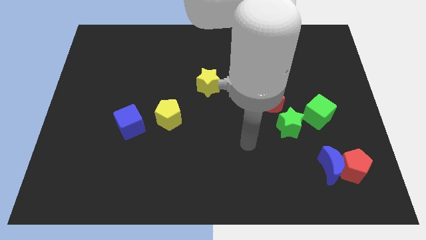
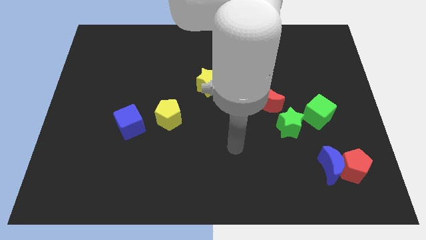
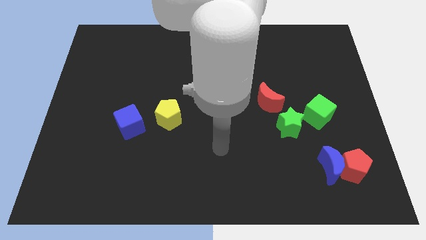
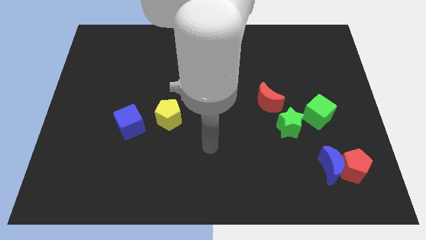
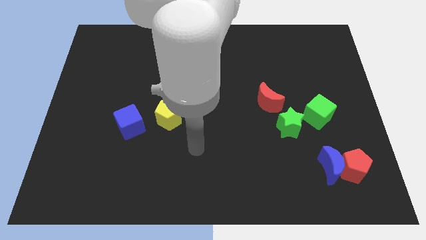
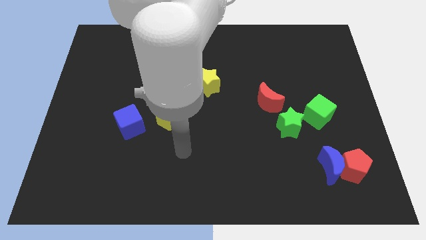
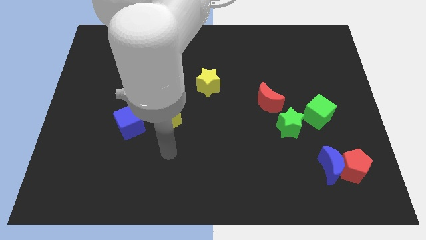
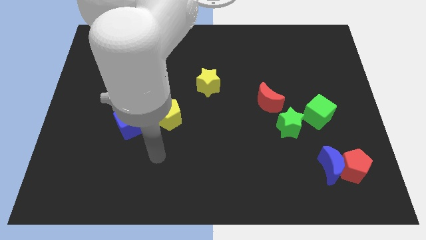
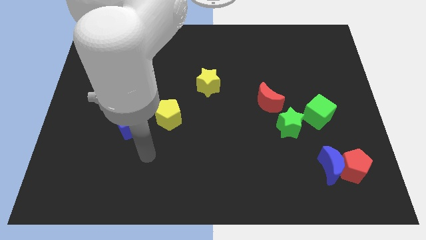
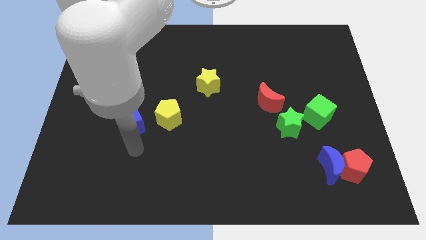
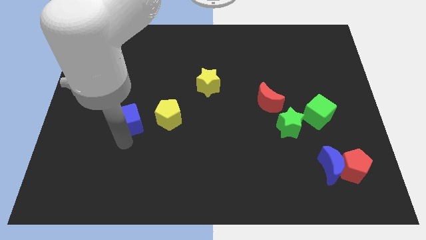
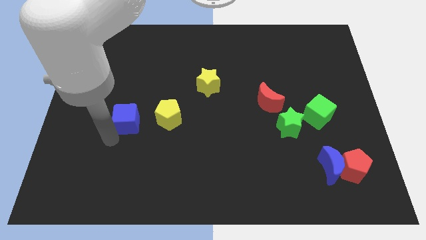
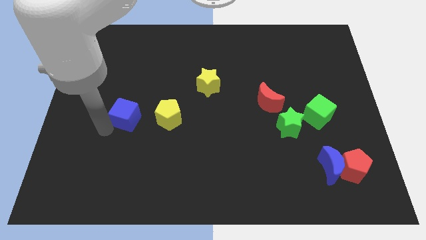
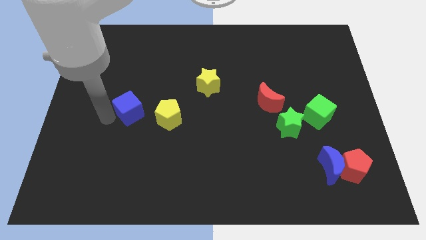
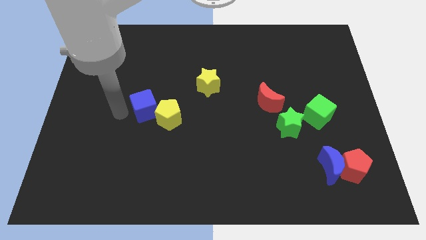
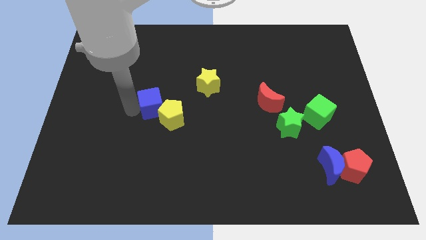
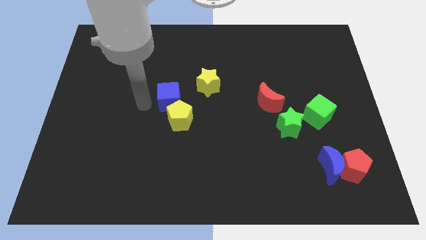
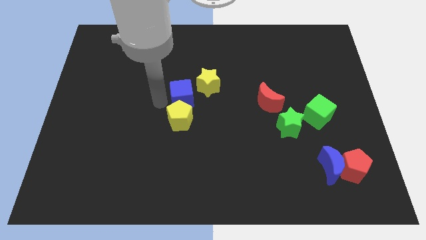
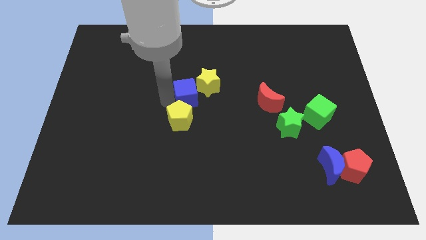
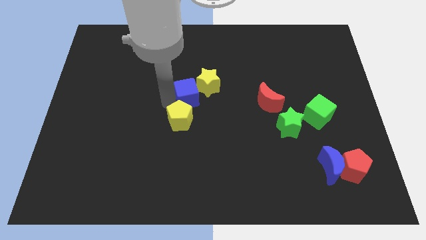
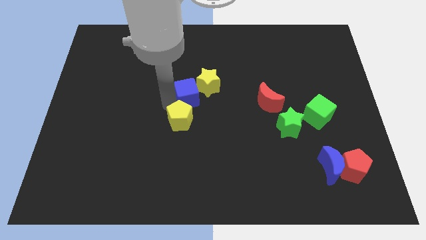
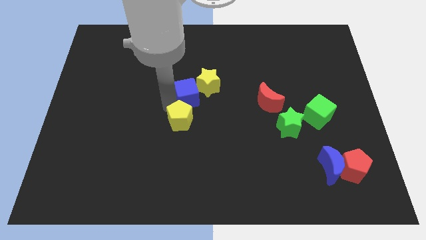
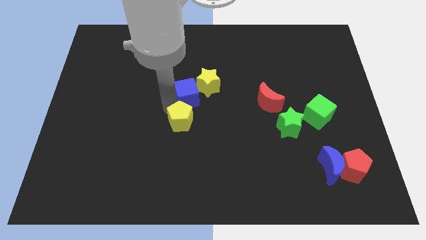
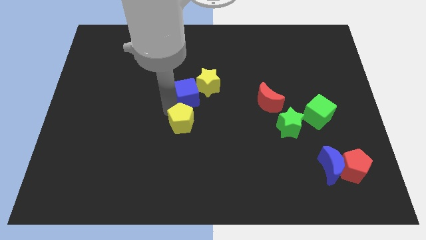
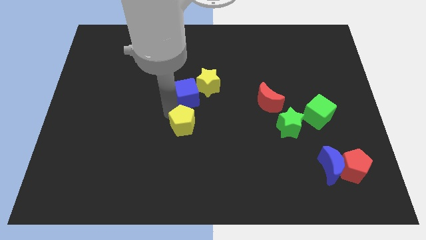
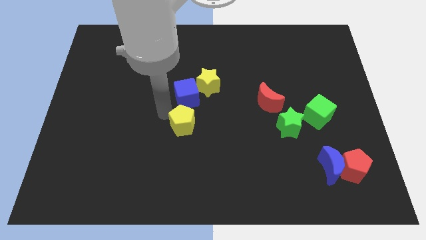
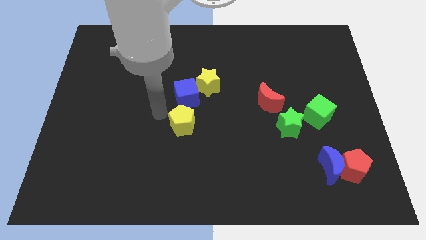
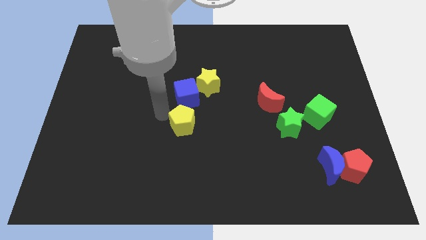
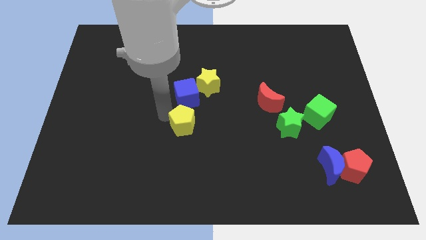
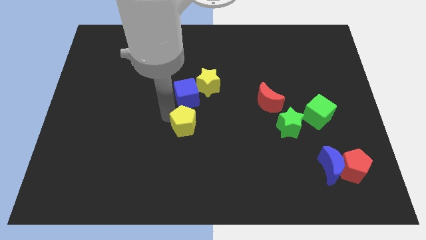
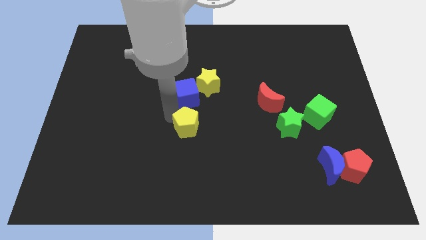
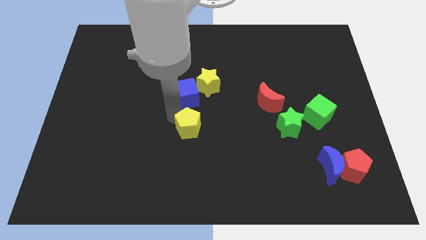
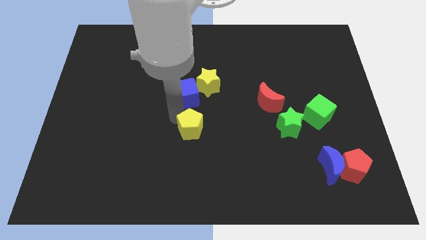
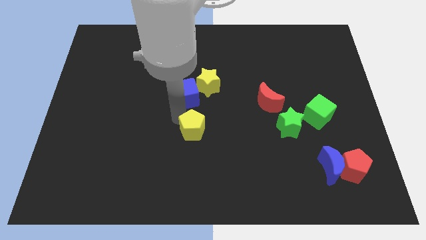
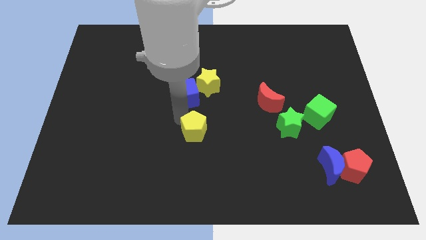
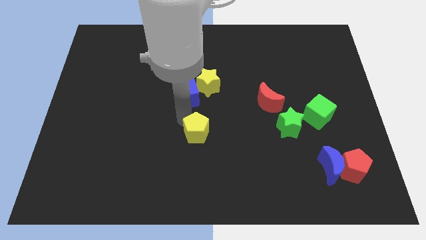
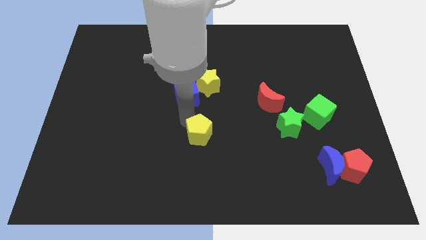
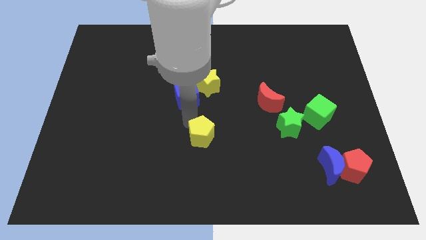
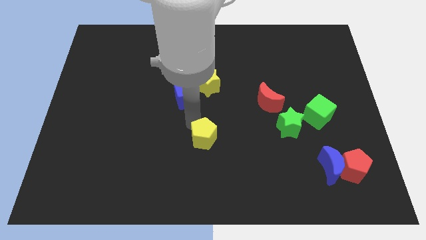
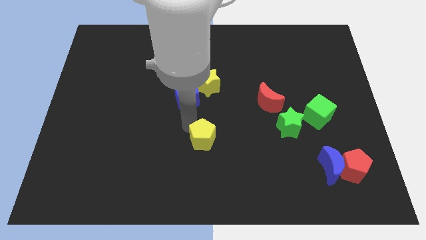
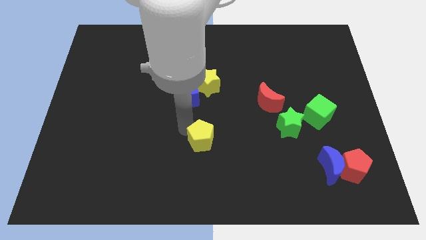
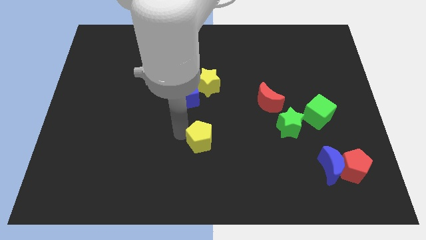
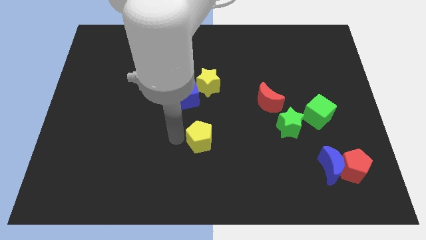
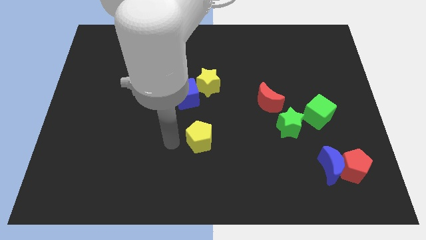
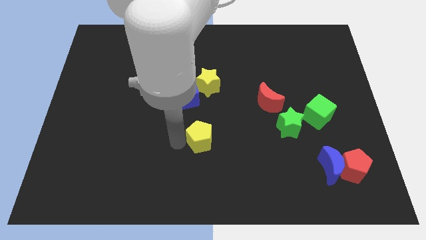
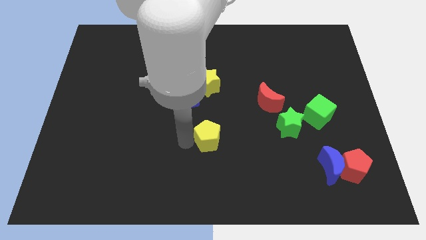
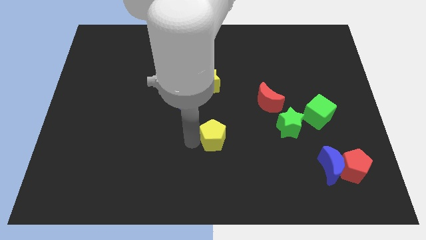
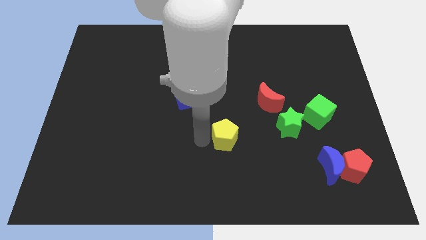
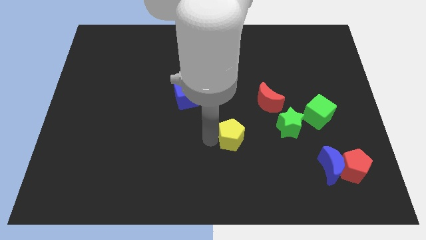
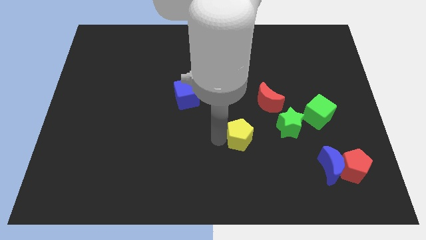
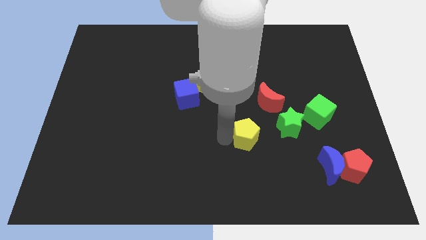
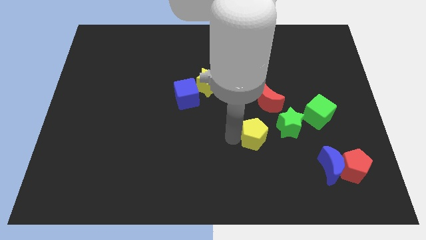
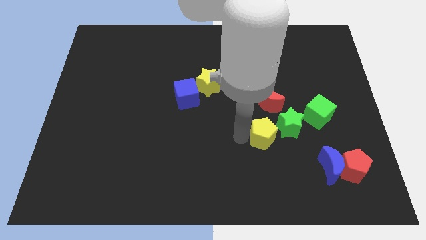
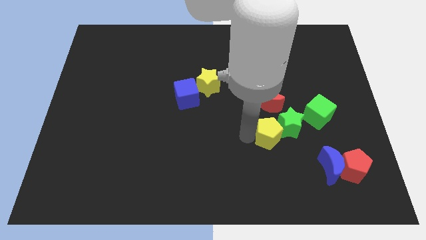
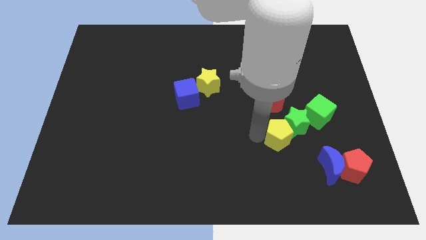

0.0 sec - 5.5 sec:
slide the yellow pentagon to the top left side of the blue moon

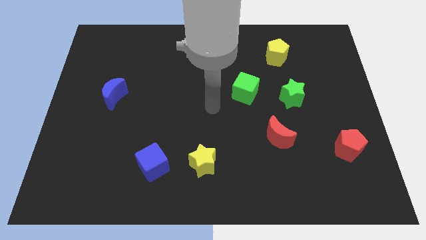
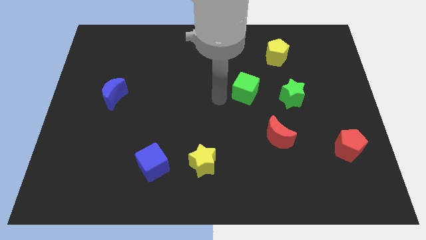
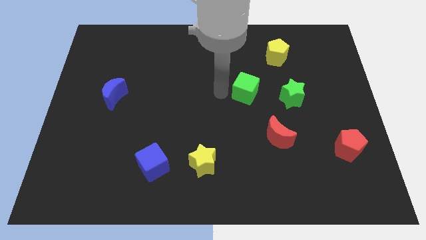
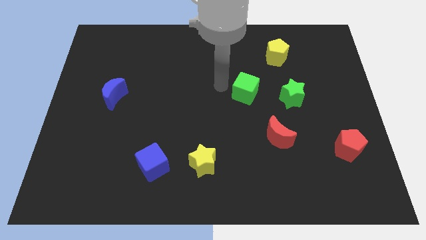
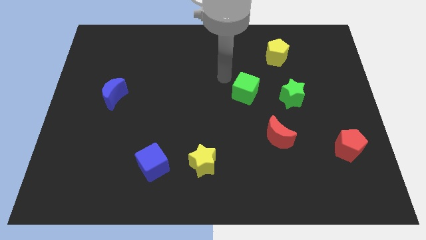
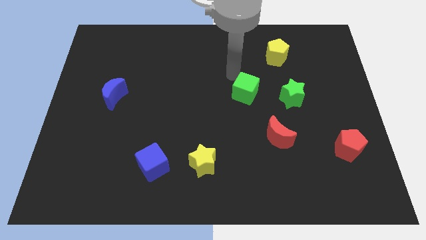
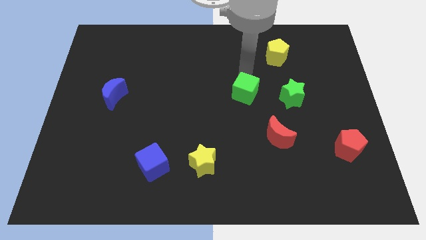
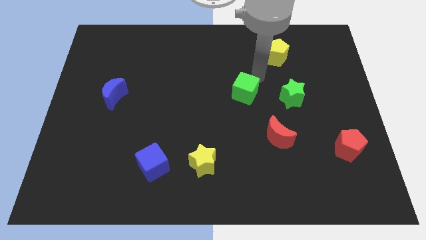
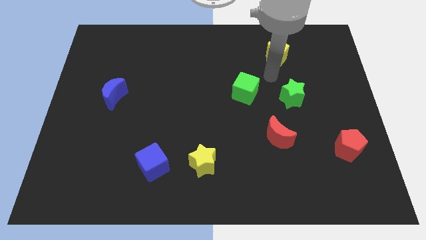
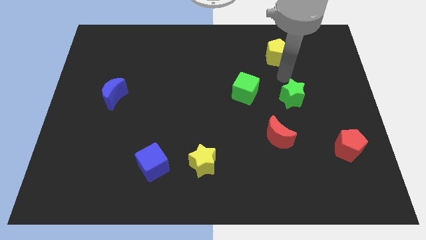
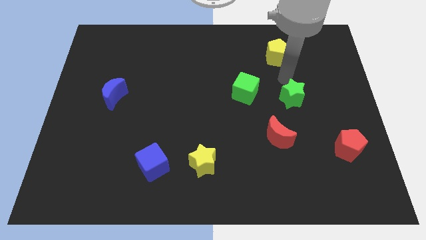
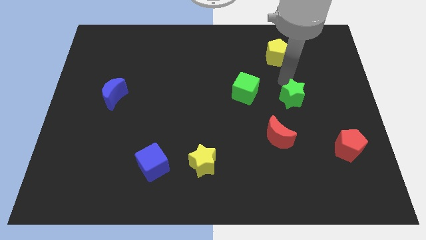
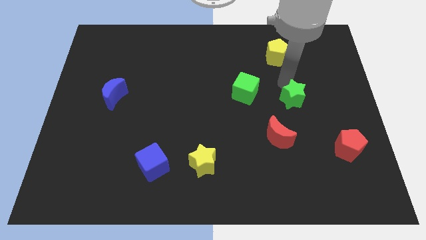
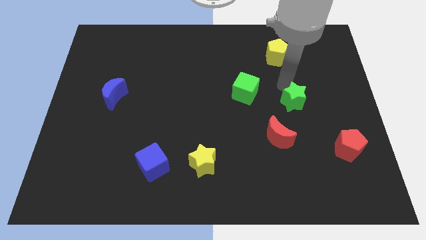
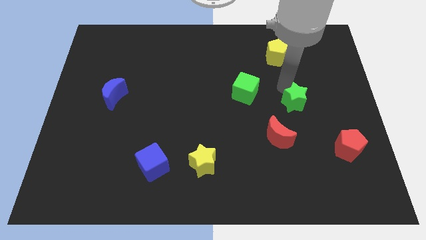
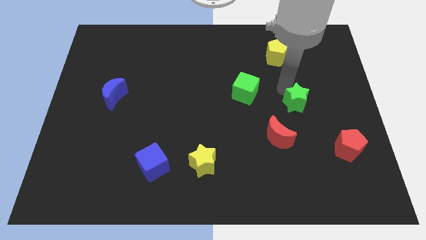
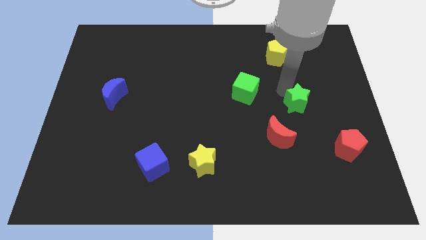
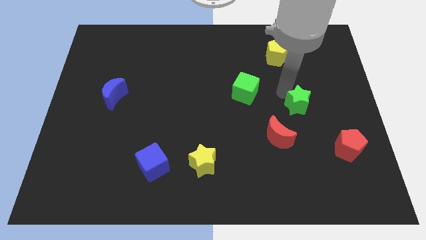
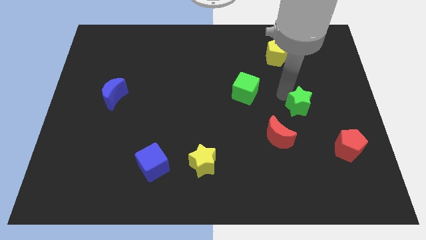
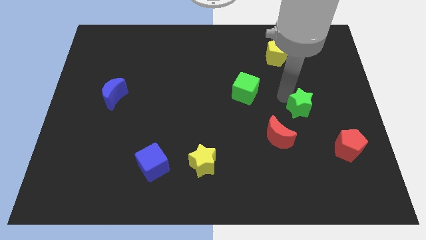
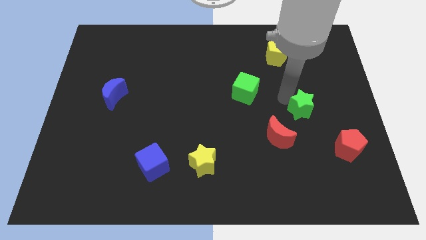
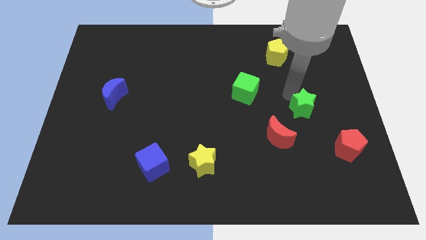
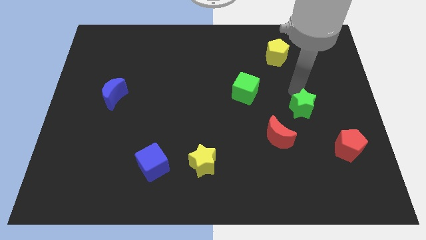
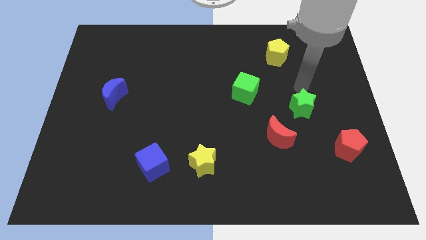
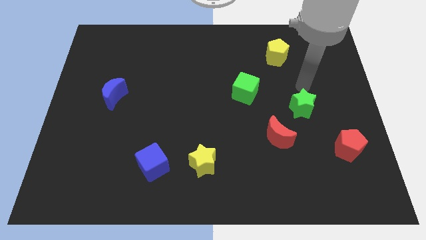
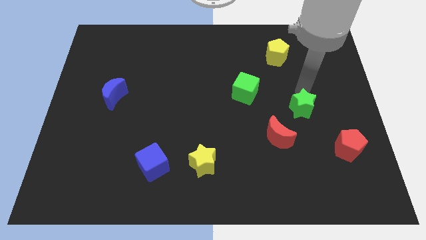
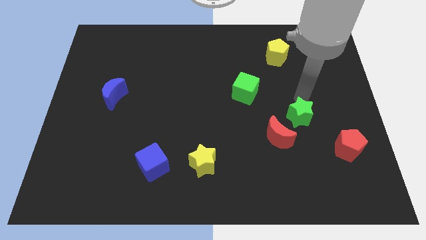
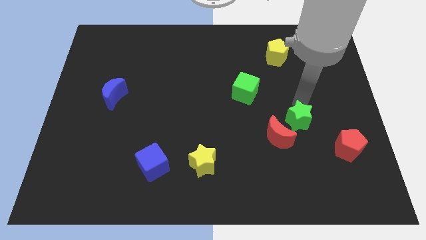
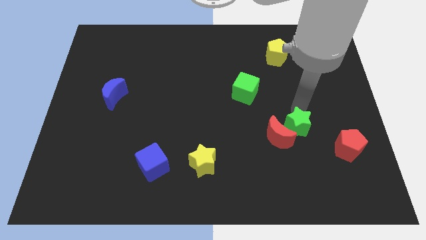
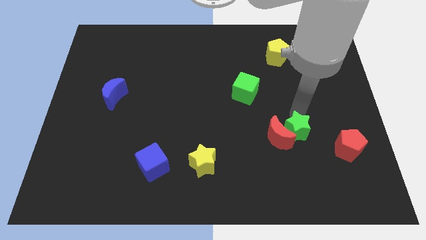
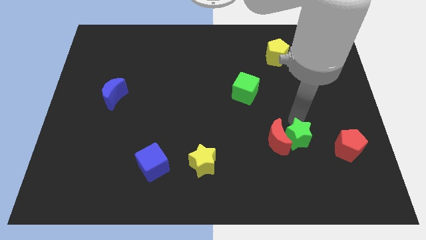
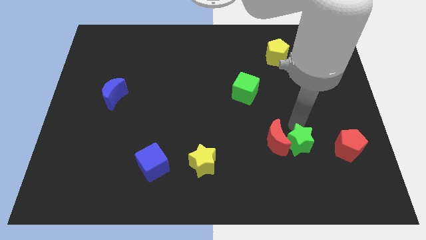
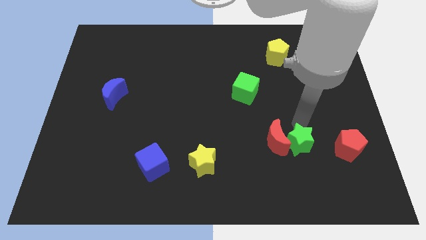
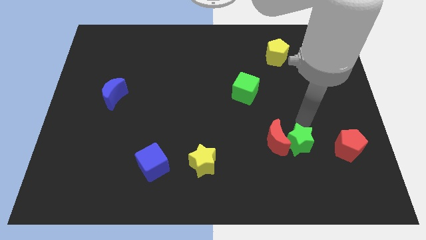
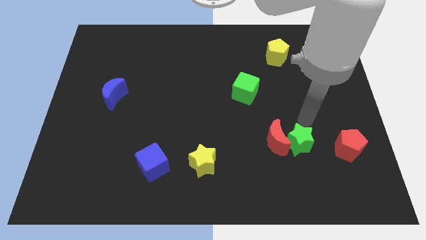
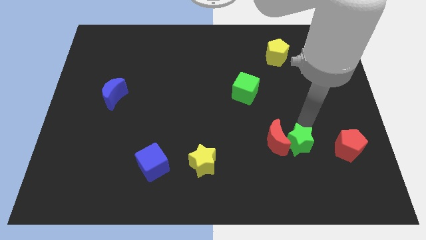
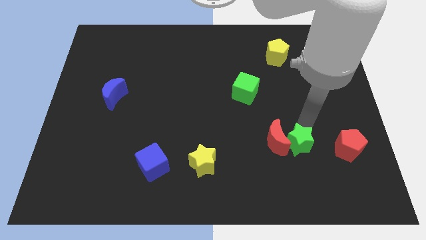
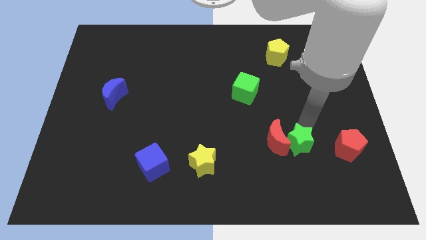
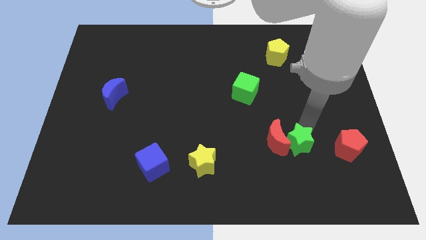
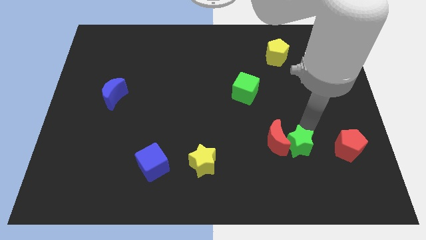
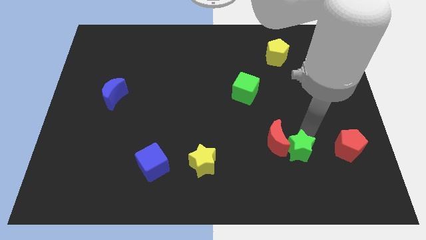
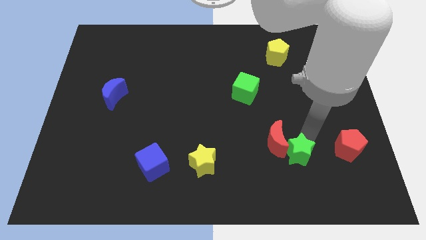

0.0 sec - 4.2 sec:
push the green star to the bottom side of the red moon
